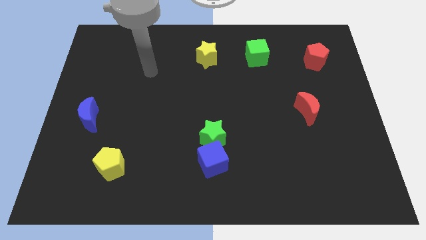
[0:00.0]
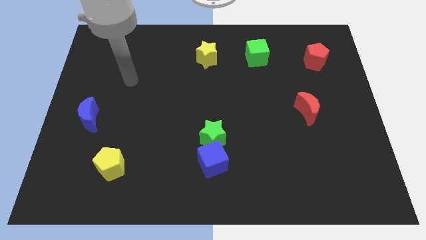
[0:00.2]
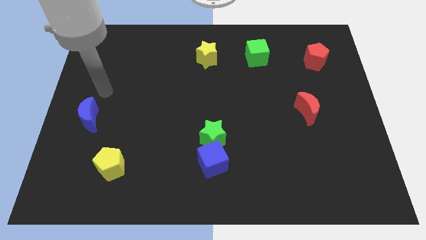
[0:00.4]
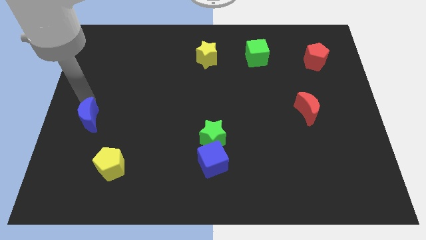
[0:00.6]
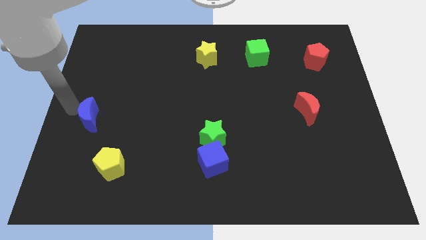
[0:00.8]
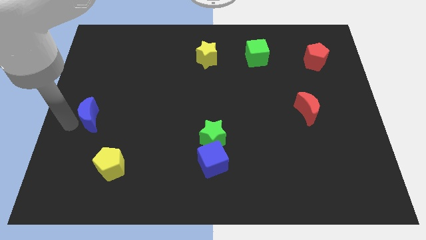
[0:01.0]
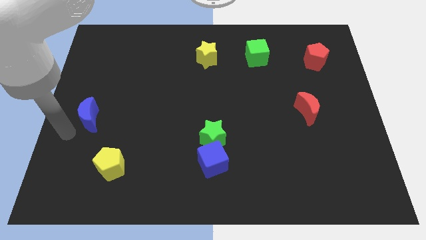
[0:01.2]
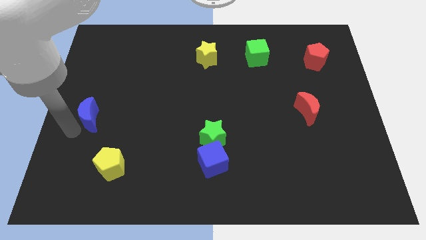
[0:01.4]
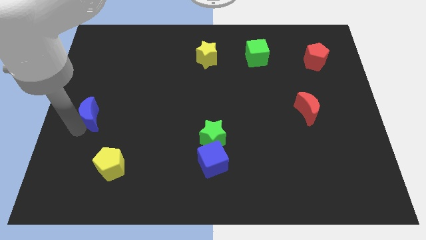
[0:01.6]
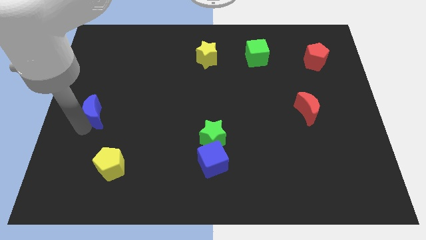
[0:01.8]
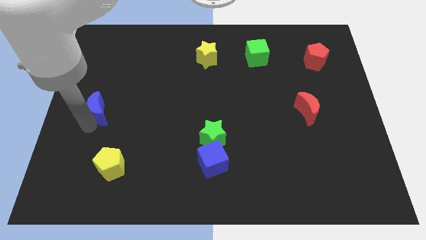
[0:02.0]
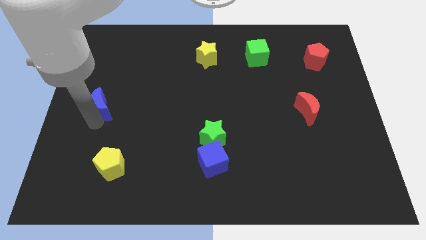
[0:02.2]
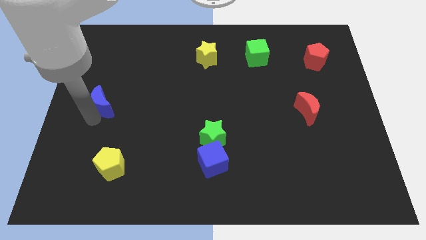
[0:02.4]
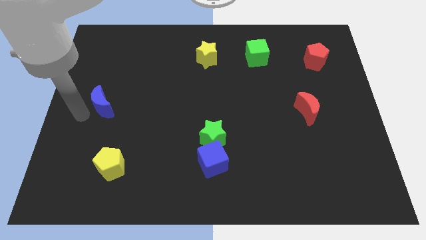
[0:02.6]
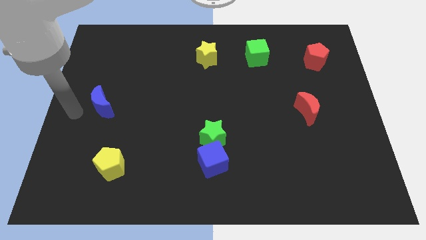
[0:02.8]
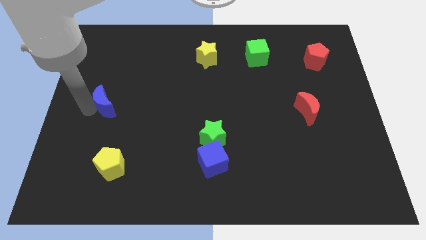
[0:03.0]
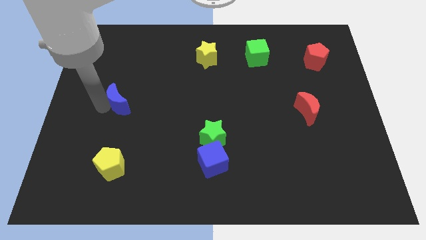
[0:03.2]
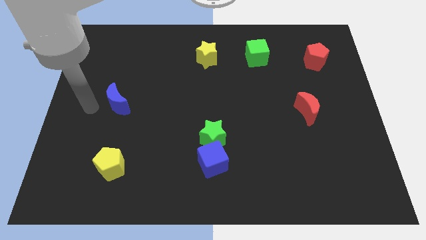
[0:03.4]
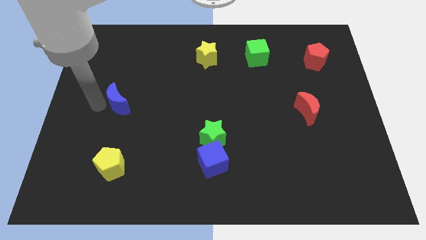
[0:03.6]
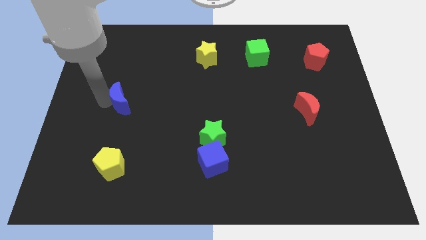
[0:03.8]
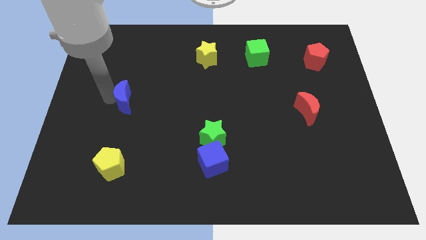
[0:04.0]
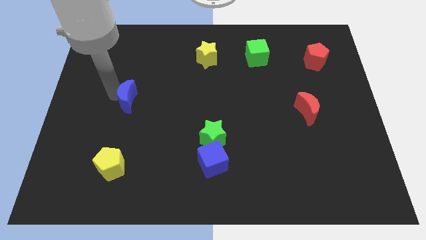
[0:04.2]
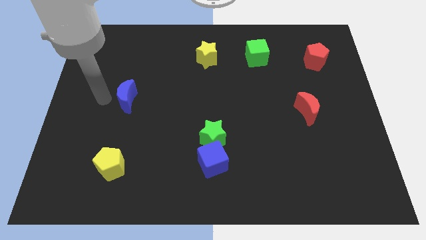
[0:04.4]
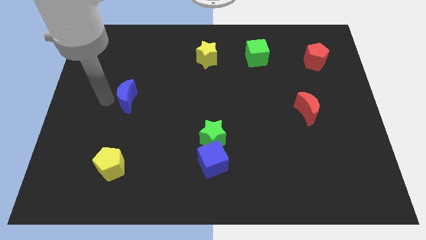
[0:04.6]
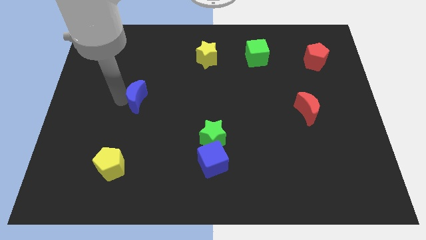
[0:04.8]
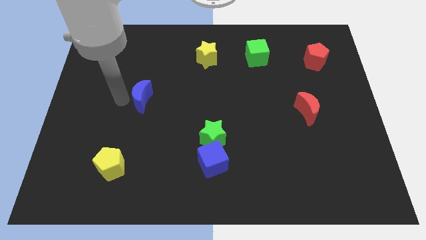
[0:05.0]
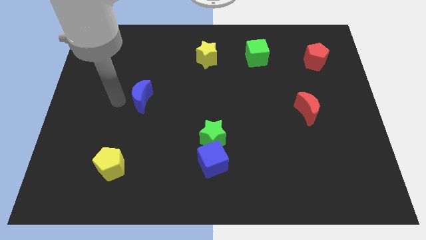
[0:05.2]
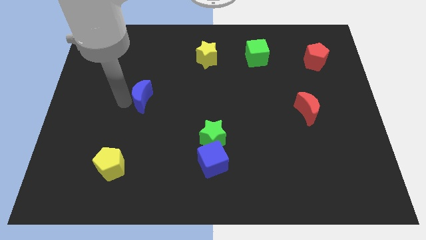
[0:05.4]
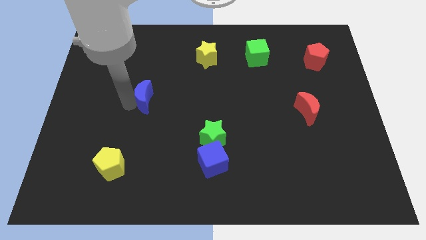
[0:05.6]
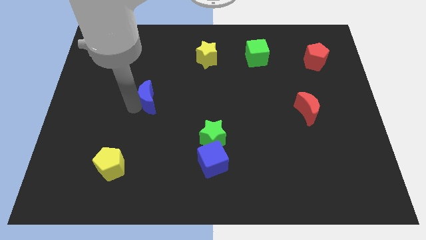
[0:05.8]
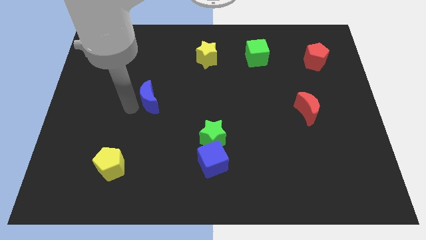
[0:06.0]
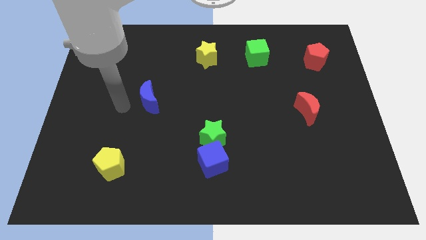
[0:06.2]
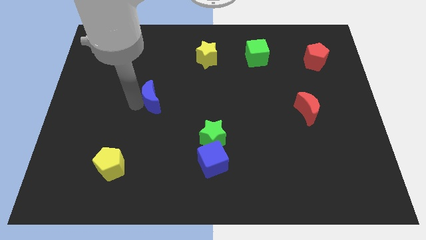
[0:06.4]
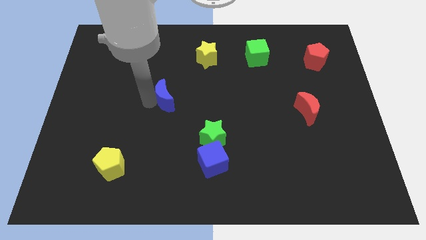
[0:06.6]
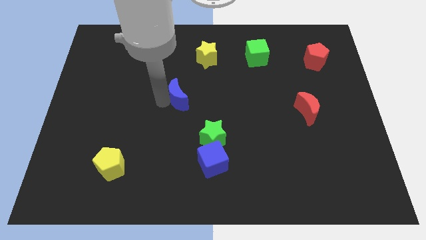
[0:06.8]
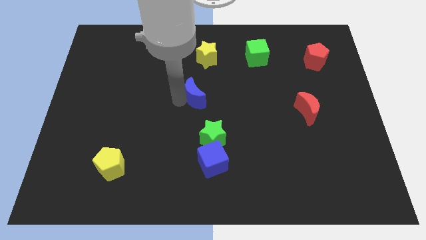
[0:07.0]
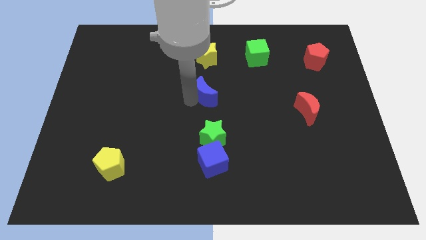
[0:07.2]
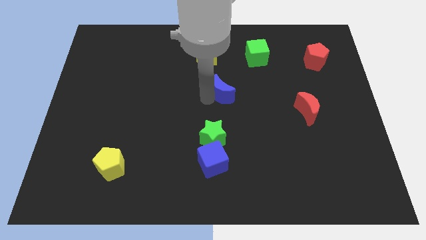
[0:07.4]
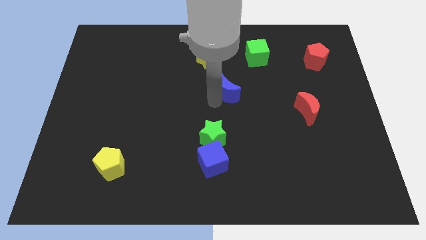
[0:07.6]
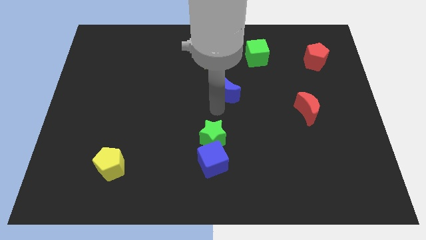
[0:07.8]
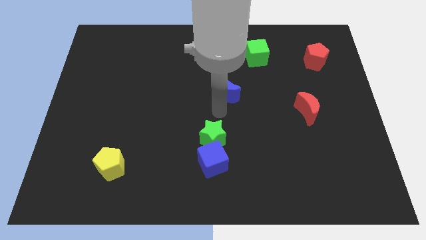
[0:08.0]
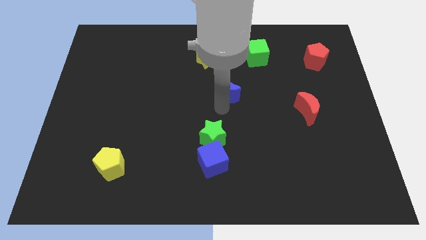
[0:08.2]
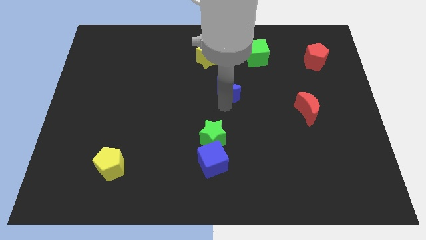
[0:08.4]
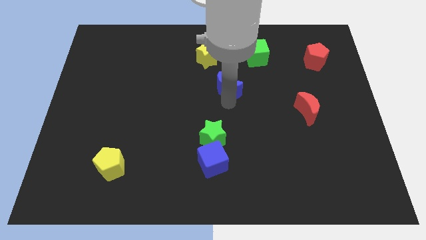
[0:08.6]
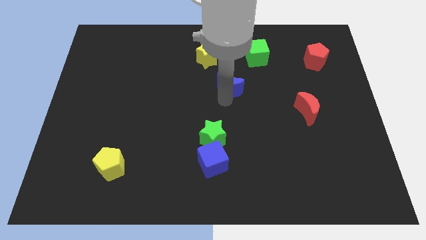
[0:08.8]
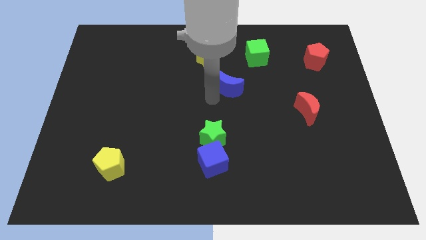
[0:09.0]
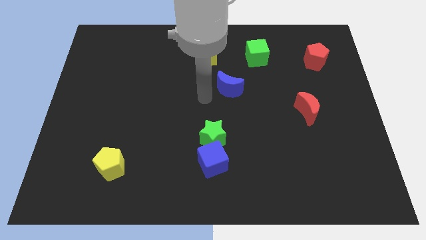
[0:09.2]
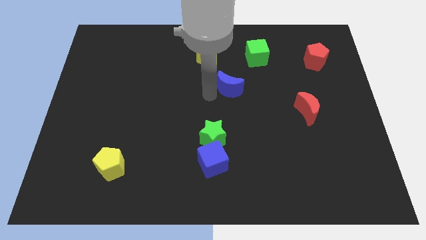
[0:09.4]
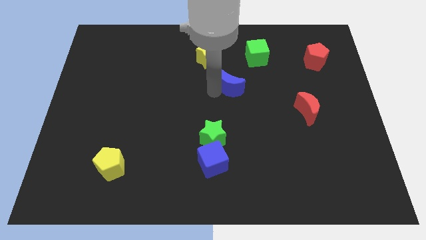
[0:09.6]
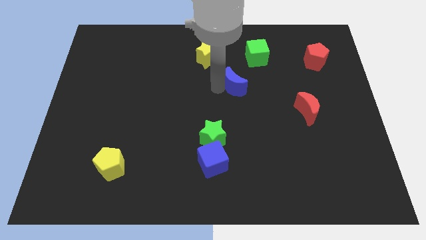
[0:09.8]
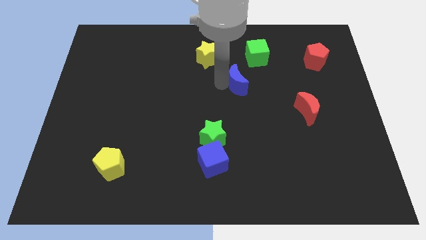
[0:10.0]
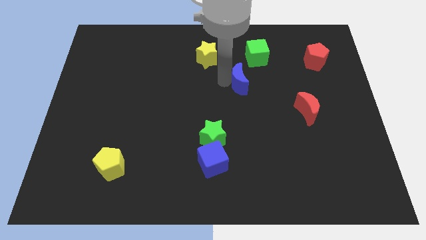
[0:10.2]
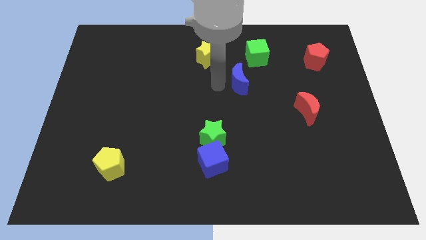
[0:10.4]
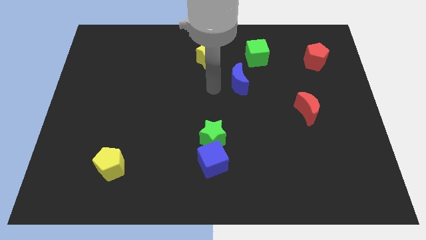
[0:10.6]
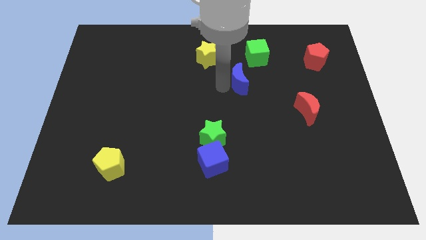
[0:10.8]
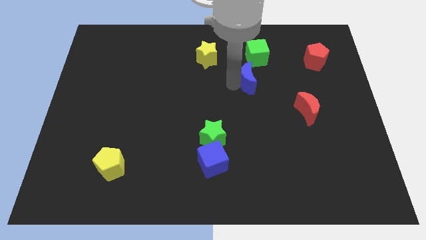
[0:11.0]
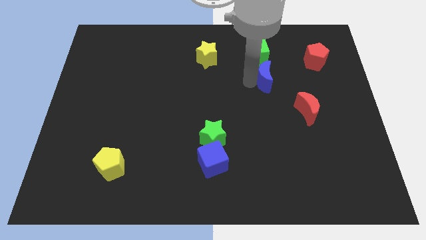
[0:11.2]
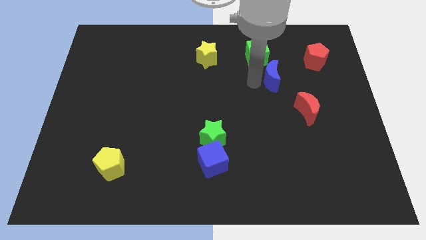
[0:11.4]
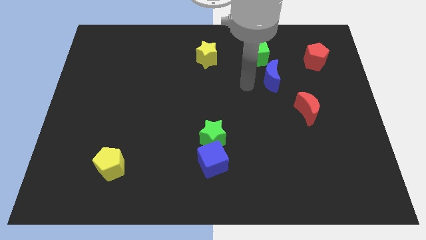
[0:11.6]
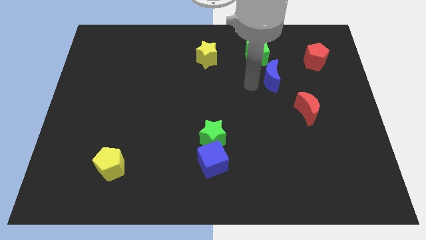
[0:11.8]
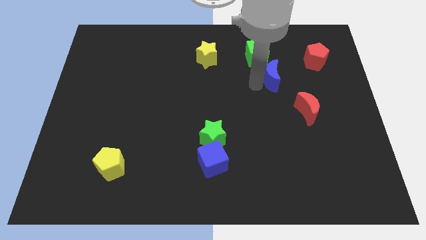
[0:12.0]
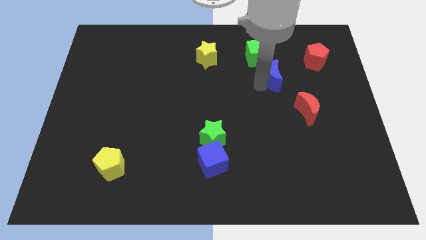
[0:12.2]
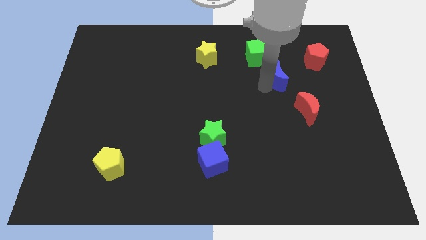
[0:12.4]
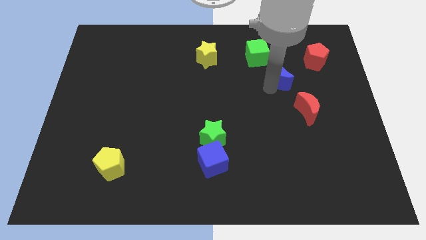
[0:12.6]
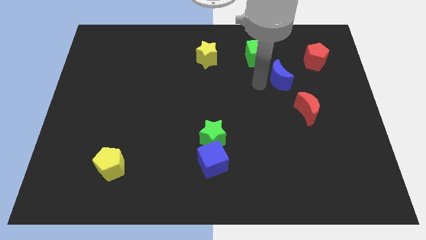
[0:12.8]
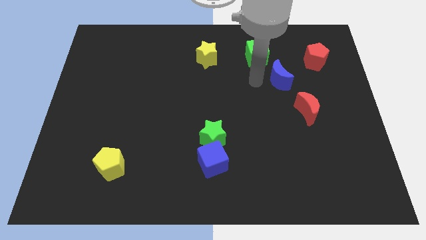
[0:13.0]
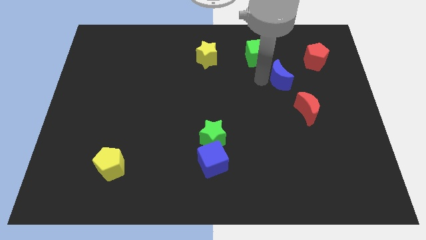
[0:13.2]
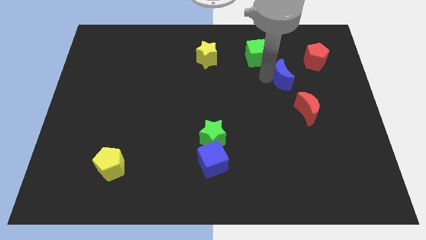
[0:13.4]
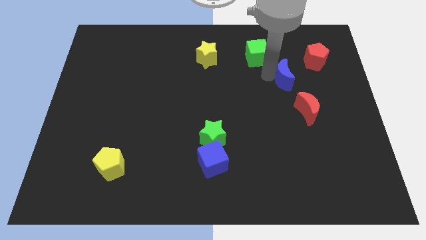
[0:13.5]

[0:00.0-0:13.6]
slide the blue moon above the red moon
